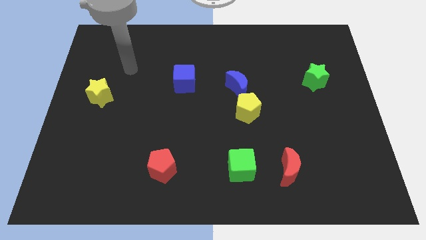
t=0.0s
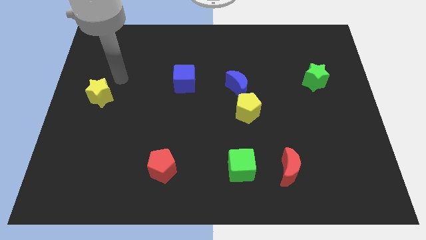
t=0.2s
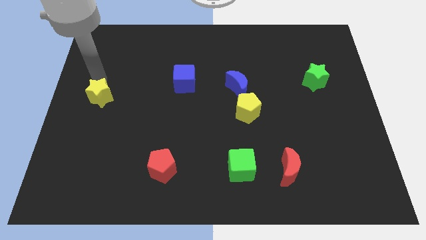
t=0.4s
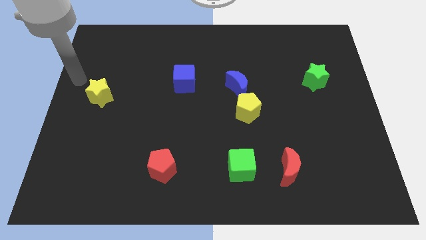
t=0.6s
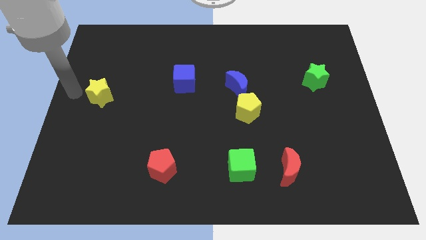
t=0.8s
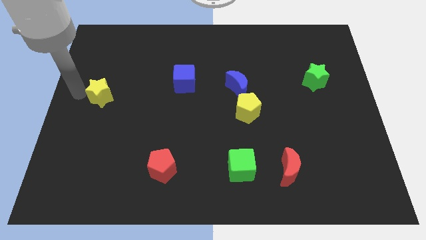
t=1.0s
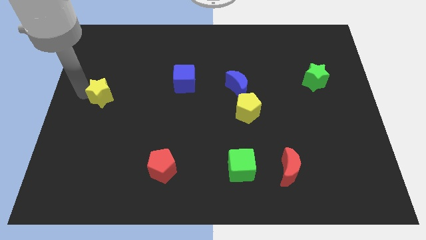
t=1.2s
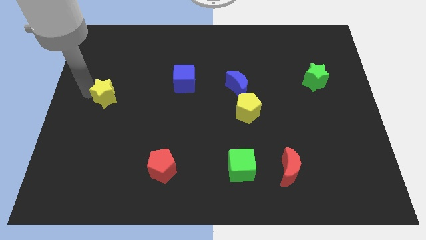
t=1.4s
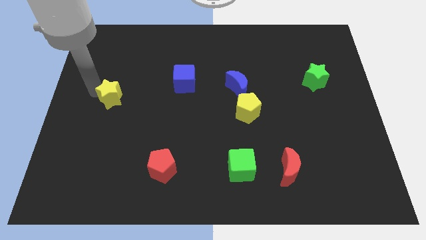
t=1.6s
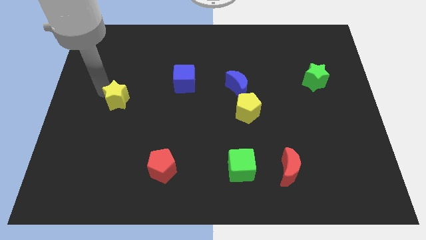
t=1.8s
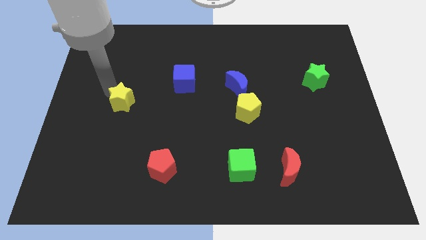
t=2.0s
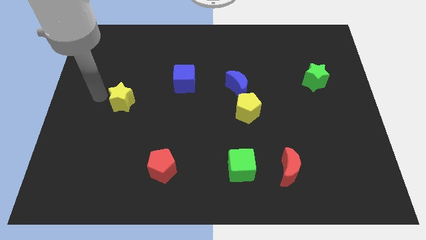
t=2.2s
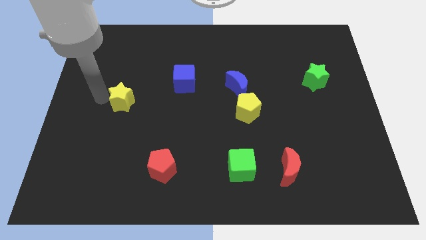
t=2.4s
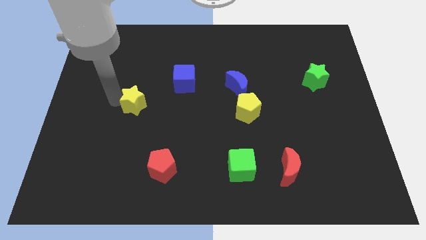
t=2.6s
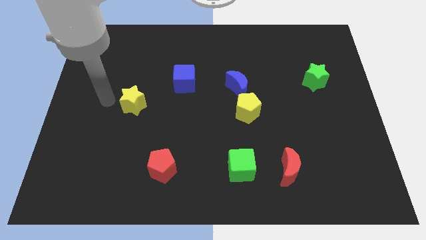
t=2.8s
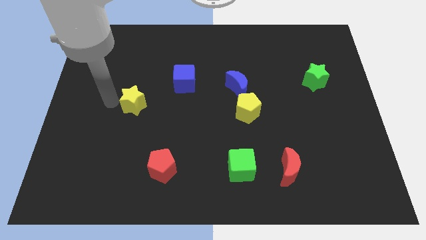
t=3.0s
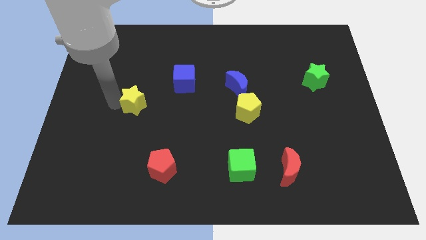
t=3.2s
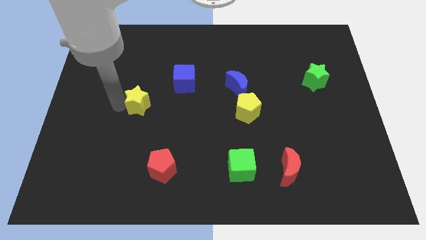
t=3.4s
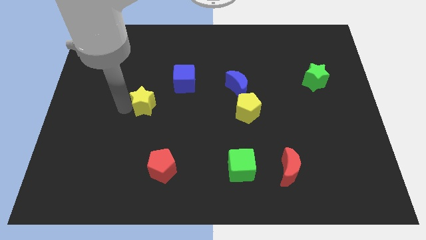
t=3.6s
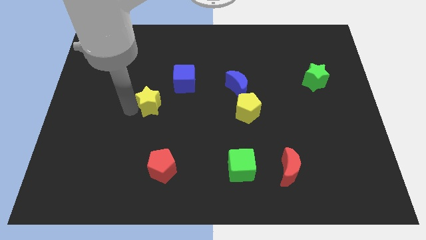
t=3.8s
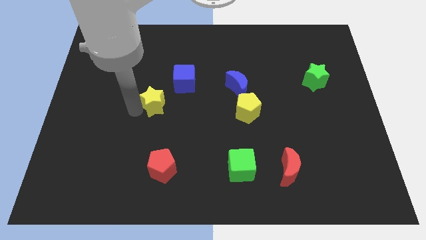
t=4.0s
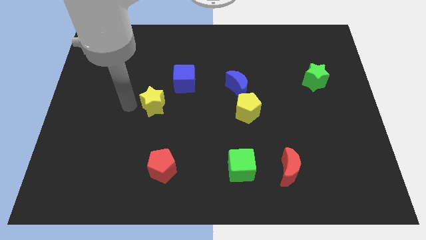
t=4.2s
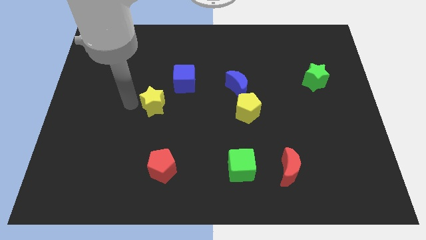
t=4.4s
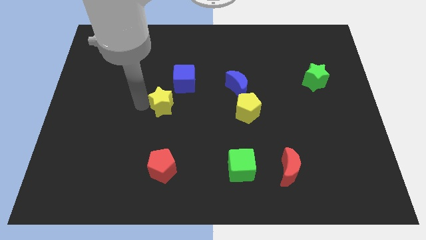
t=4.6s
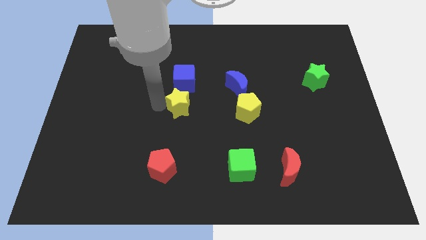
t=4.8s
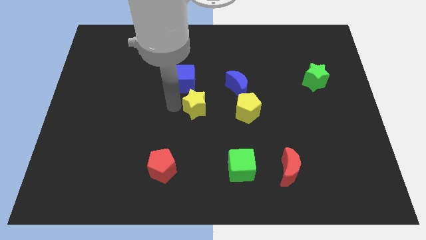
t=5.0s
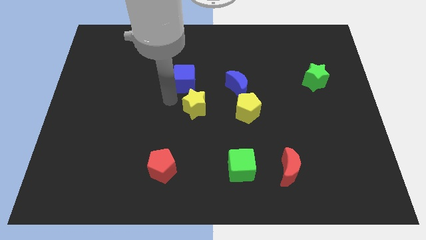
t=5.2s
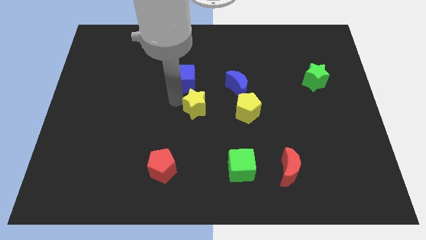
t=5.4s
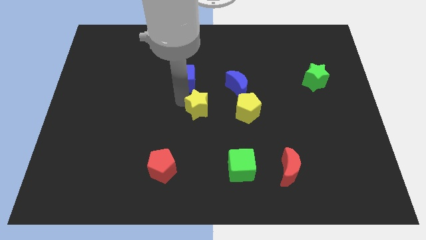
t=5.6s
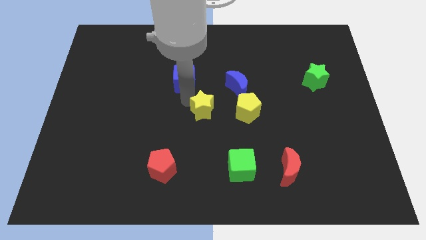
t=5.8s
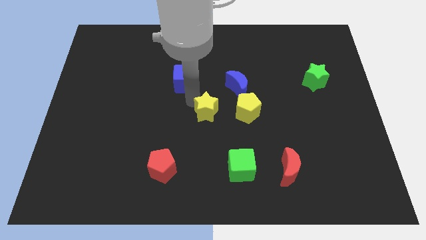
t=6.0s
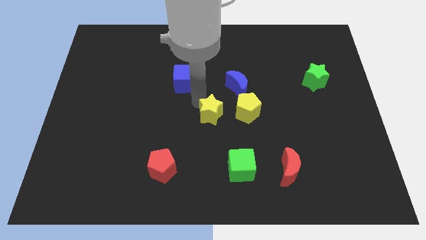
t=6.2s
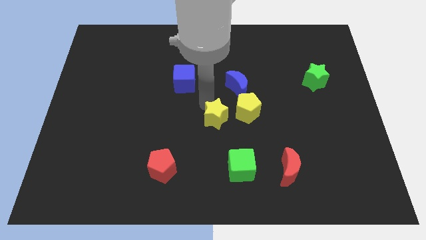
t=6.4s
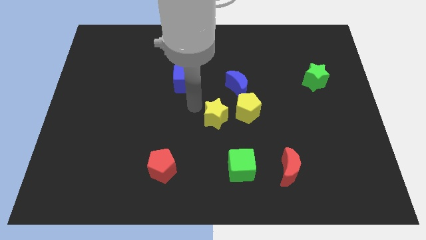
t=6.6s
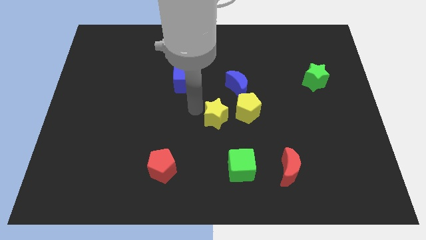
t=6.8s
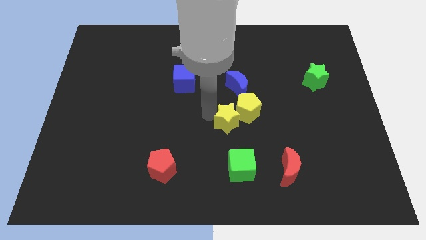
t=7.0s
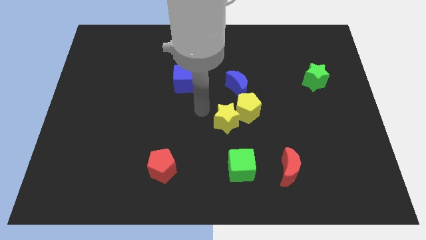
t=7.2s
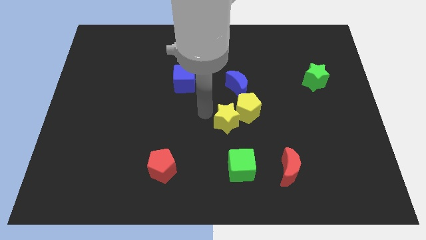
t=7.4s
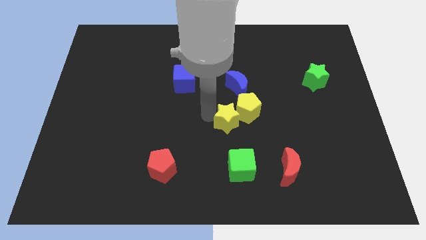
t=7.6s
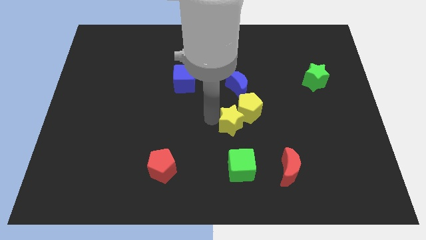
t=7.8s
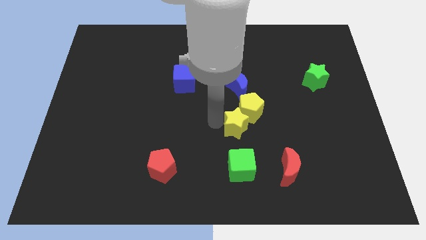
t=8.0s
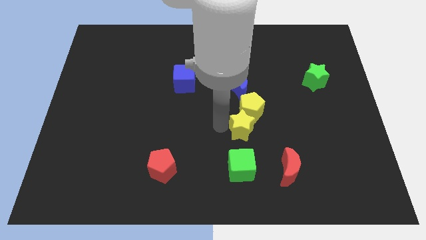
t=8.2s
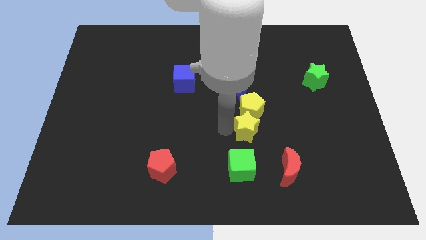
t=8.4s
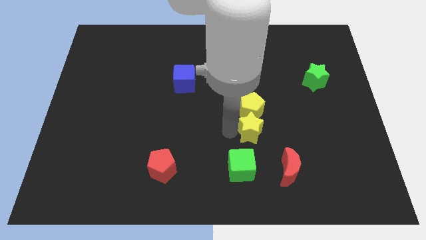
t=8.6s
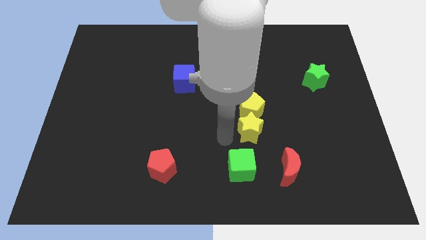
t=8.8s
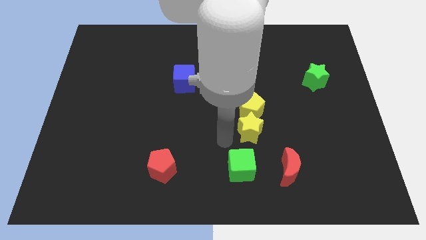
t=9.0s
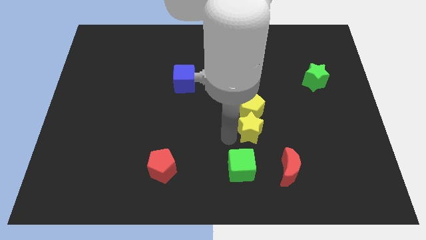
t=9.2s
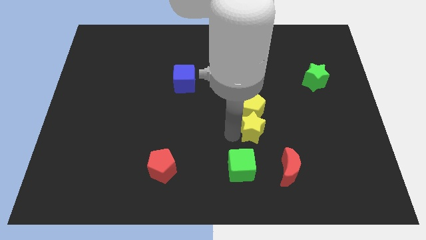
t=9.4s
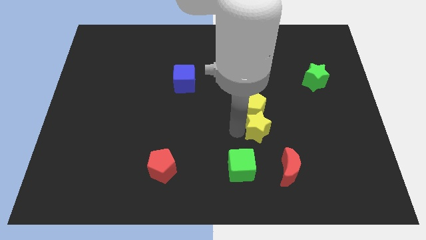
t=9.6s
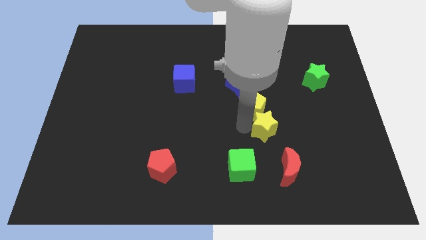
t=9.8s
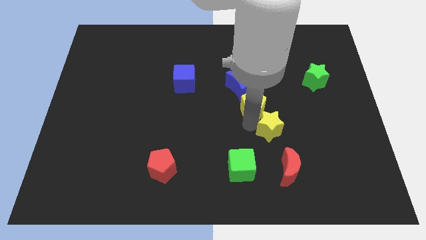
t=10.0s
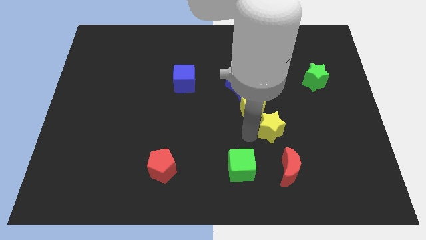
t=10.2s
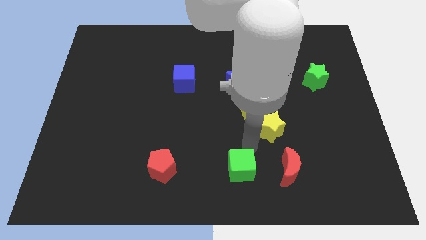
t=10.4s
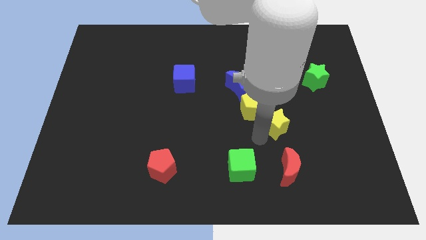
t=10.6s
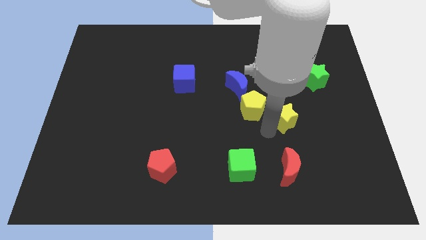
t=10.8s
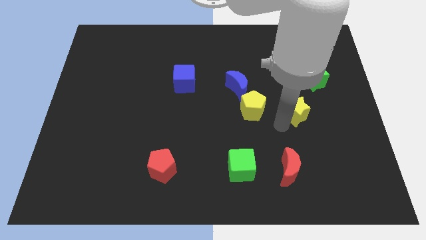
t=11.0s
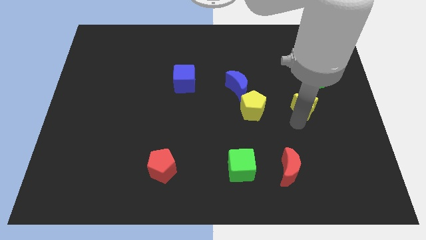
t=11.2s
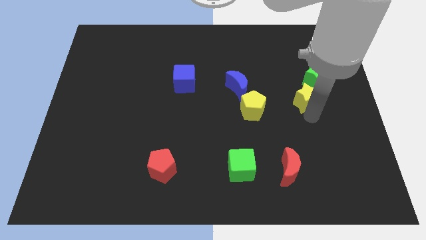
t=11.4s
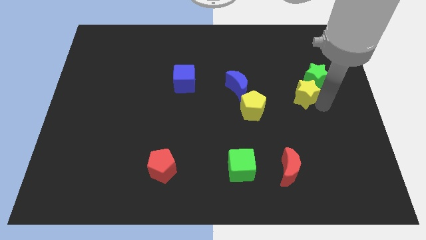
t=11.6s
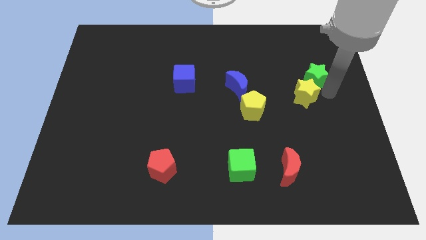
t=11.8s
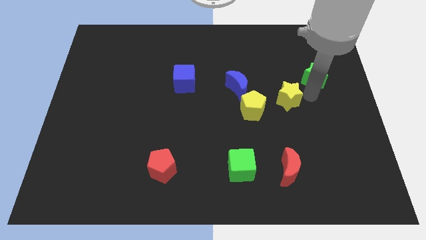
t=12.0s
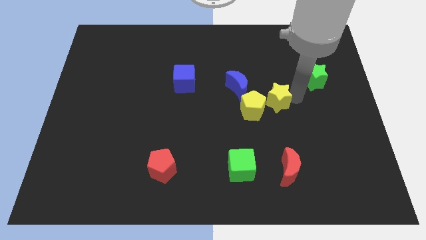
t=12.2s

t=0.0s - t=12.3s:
slide the yellow star to the bottom right of the blue moon

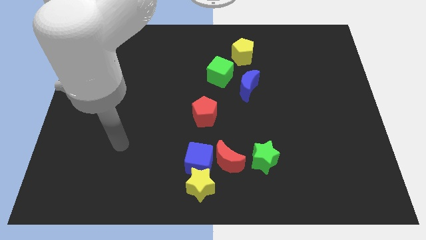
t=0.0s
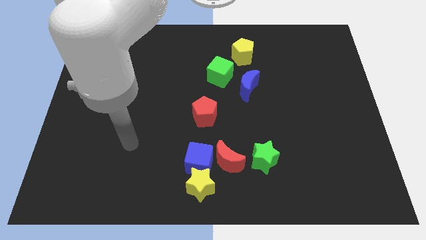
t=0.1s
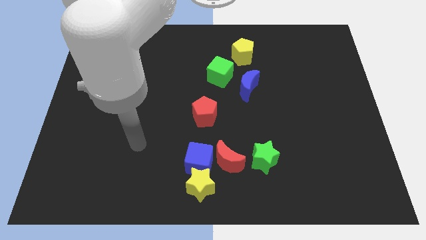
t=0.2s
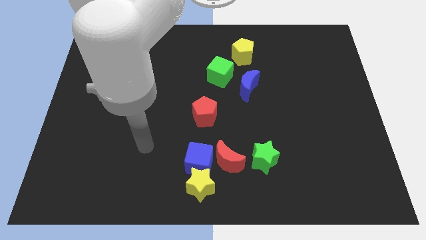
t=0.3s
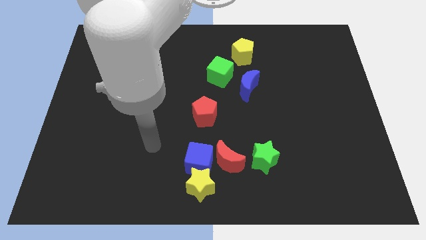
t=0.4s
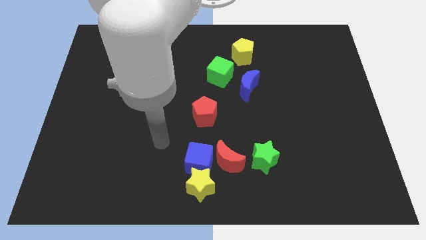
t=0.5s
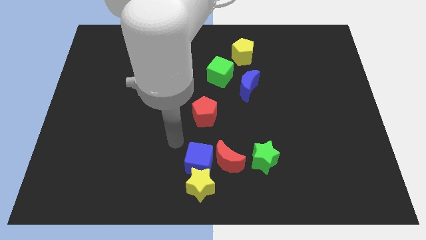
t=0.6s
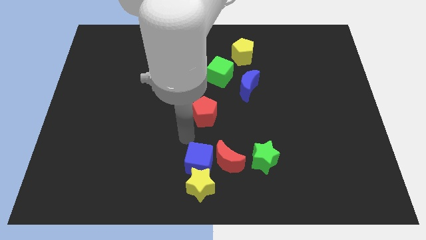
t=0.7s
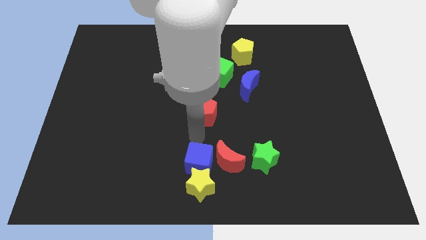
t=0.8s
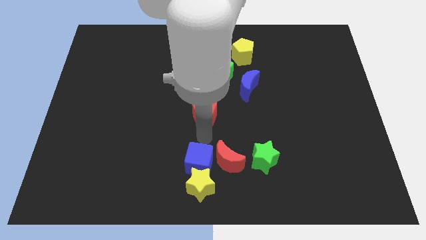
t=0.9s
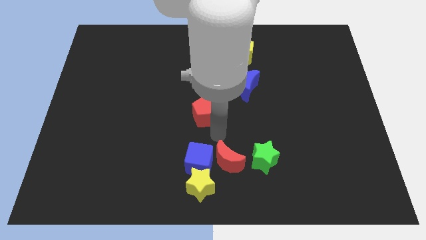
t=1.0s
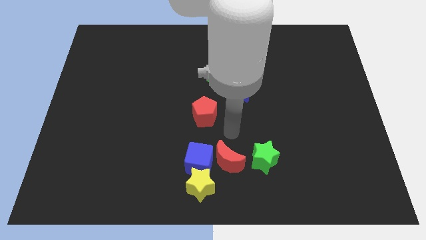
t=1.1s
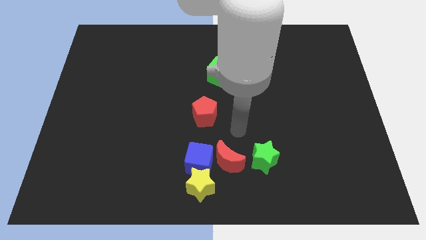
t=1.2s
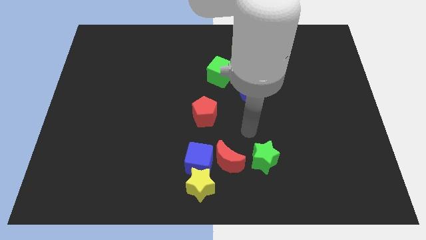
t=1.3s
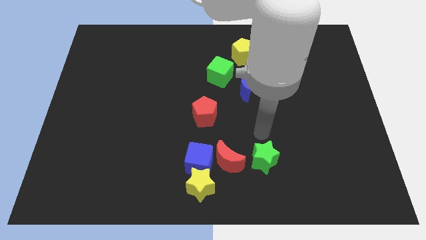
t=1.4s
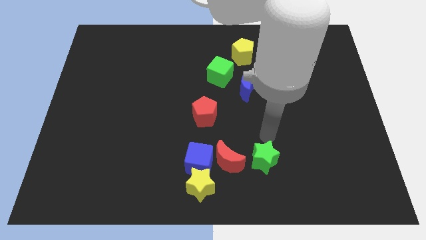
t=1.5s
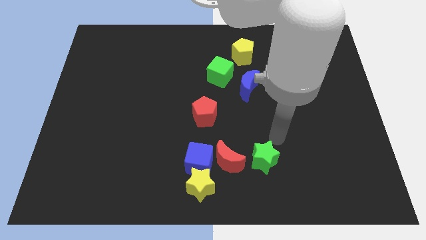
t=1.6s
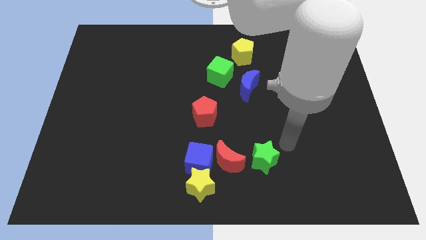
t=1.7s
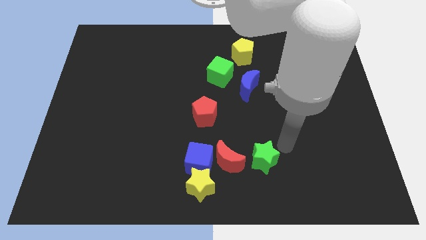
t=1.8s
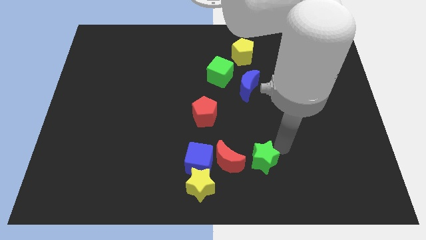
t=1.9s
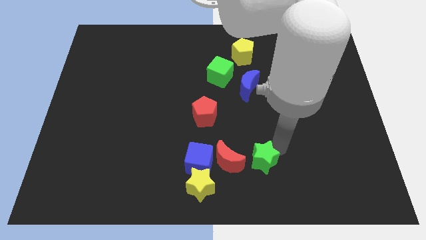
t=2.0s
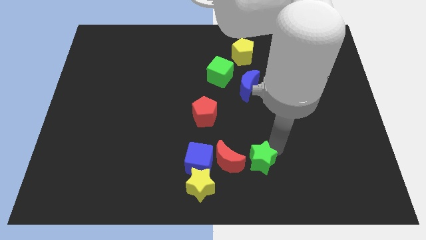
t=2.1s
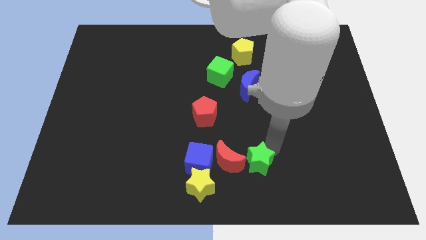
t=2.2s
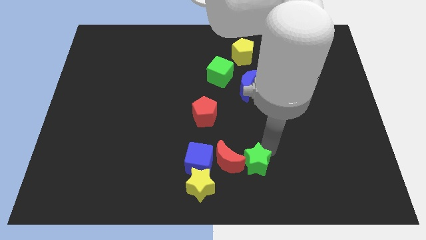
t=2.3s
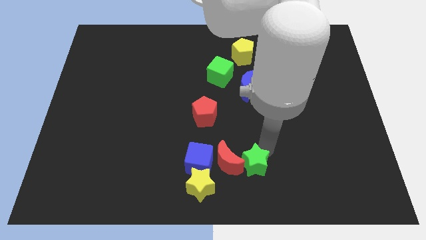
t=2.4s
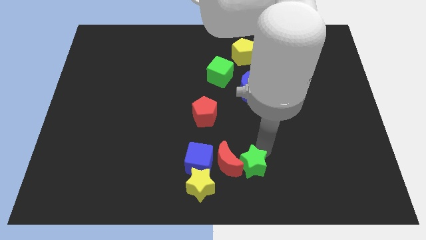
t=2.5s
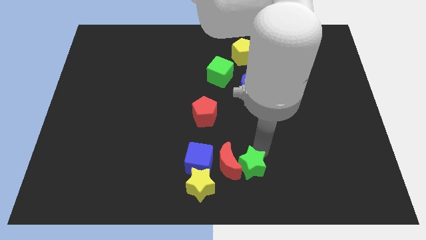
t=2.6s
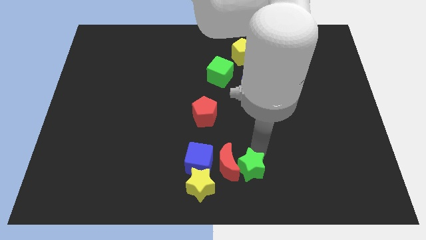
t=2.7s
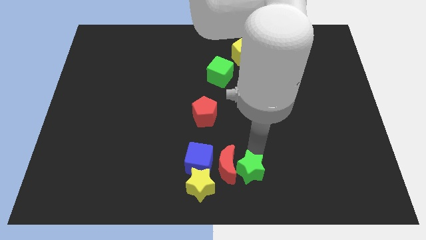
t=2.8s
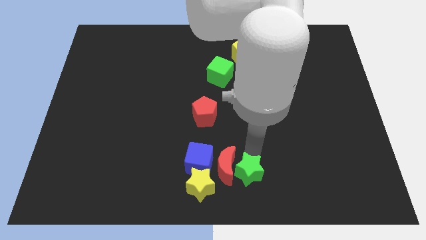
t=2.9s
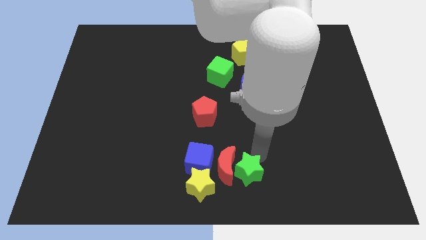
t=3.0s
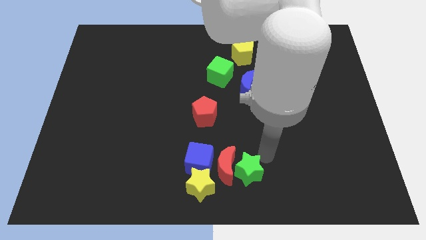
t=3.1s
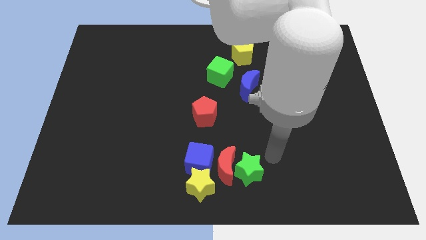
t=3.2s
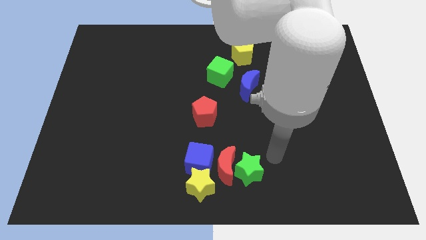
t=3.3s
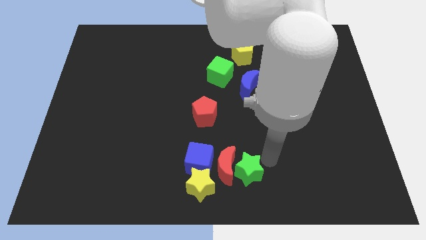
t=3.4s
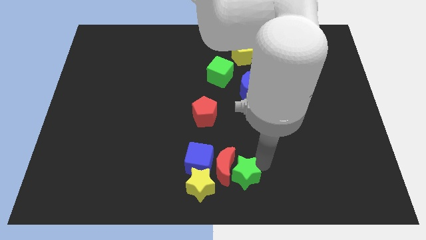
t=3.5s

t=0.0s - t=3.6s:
move the green star diagonally down and to the right of the blue cube
